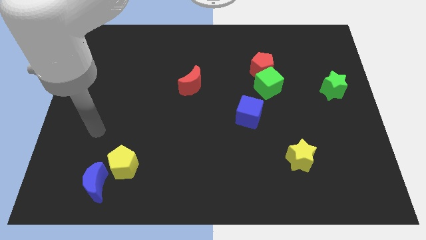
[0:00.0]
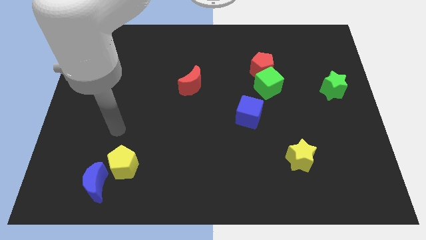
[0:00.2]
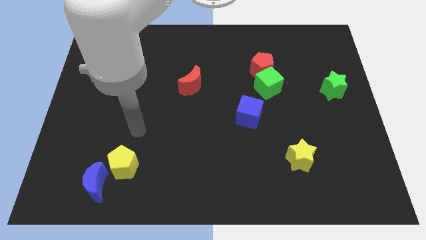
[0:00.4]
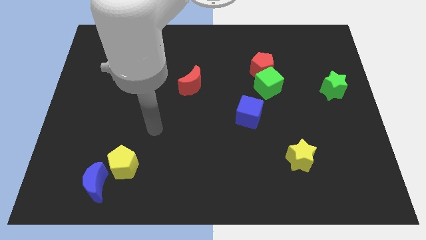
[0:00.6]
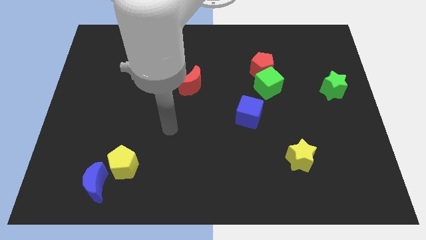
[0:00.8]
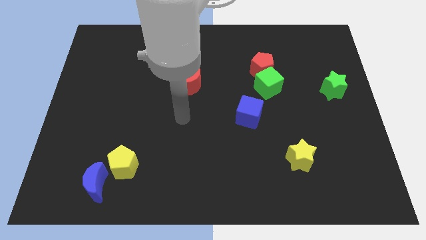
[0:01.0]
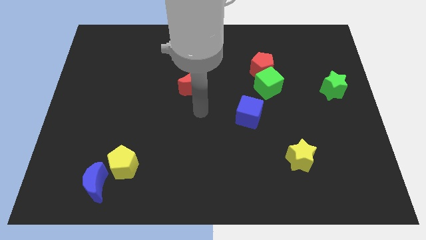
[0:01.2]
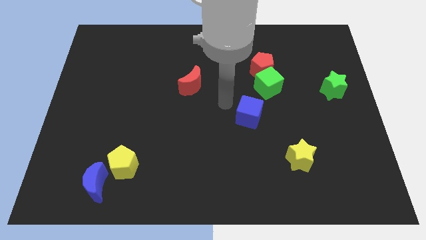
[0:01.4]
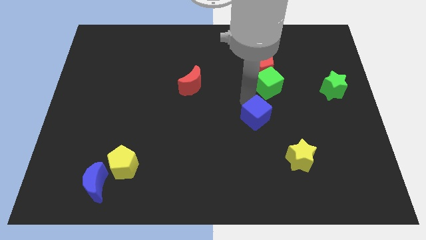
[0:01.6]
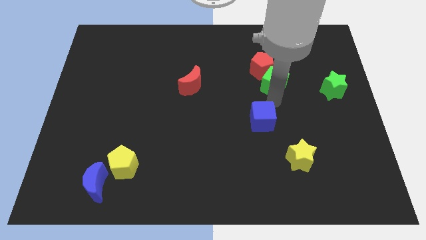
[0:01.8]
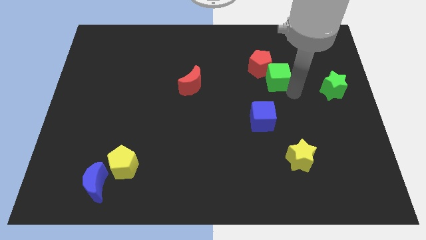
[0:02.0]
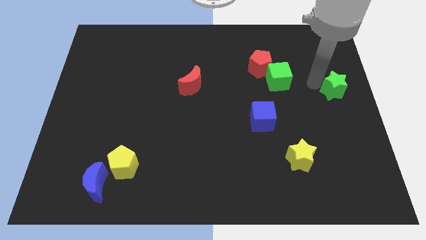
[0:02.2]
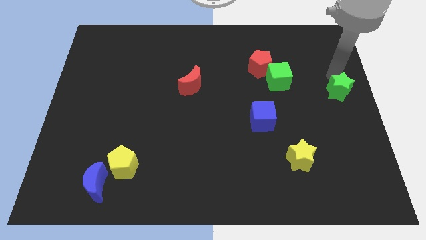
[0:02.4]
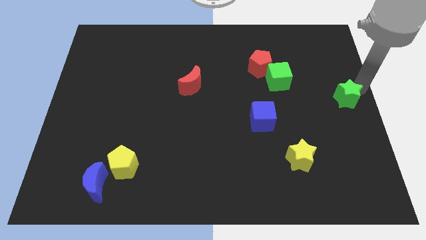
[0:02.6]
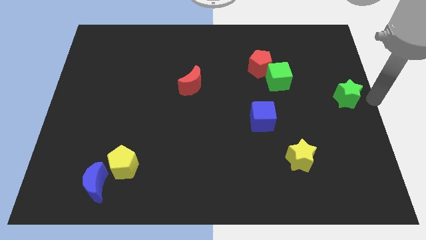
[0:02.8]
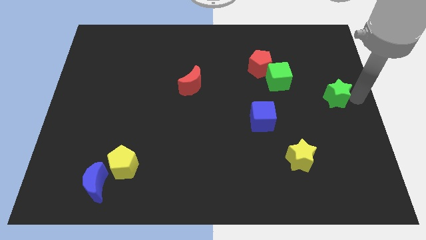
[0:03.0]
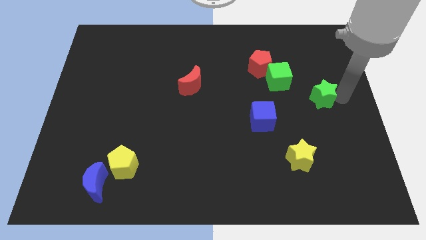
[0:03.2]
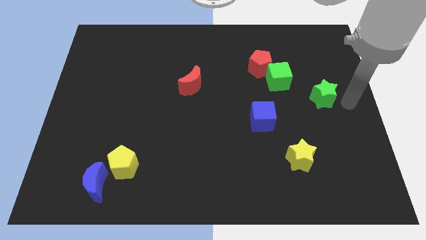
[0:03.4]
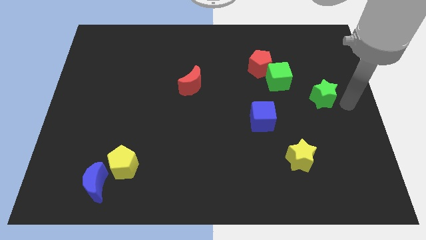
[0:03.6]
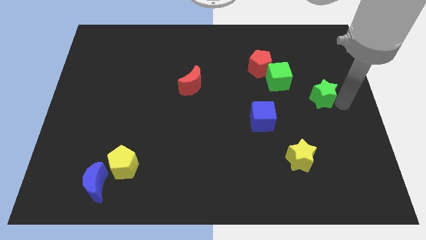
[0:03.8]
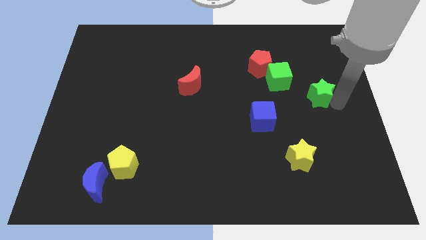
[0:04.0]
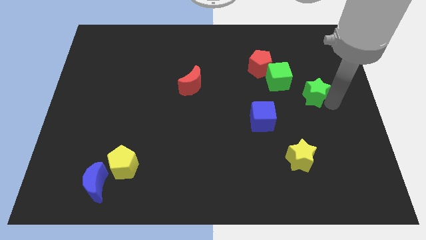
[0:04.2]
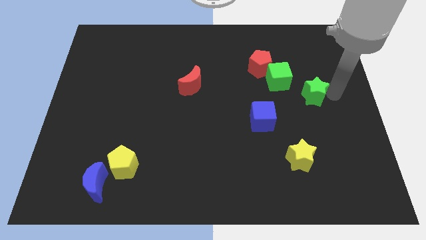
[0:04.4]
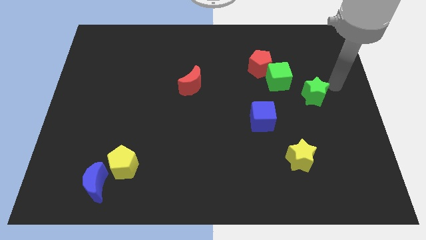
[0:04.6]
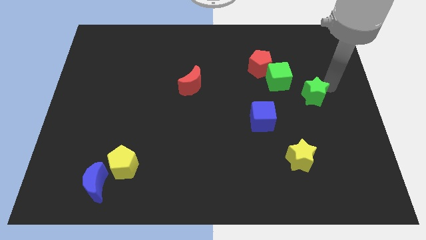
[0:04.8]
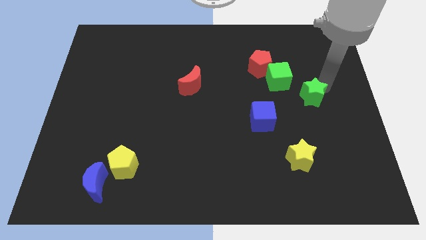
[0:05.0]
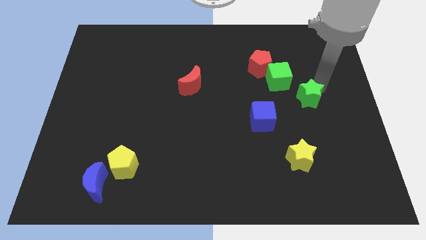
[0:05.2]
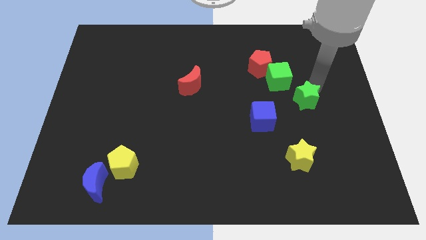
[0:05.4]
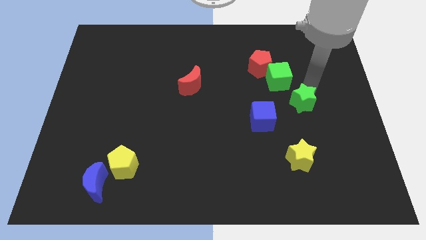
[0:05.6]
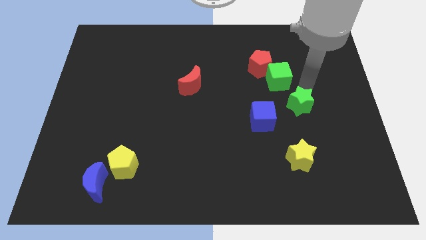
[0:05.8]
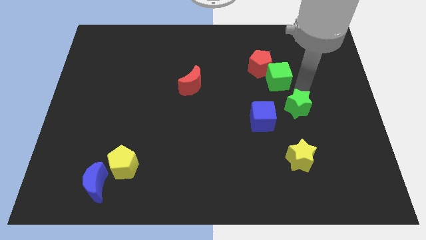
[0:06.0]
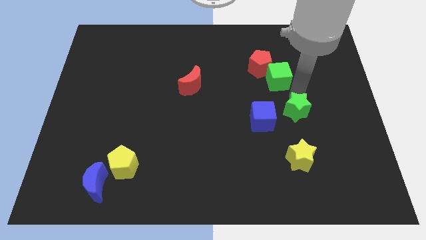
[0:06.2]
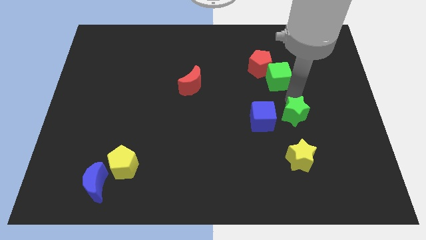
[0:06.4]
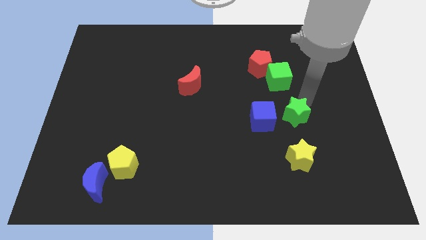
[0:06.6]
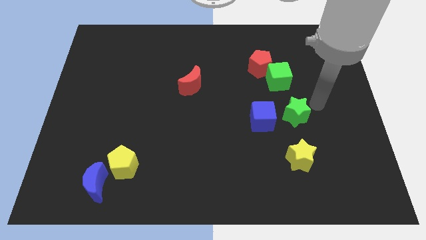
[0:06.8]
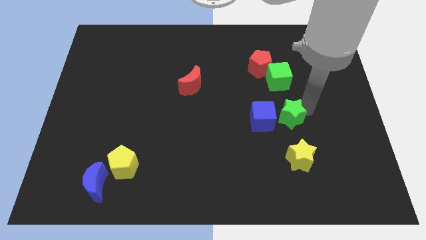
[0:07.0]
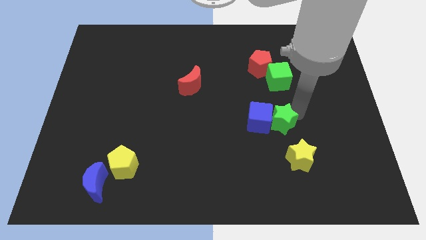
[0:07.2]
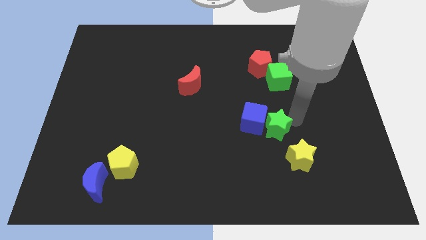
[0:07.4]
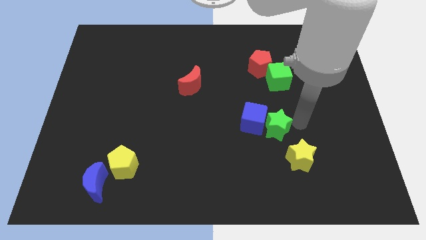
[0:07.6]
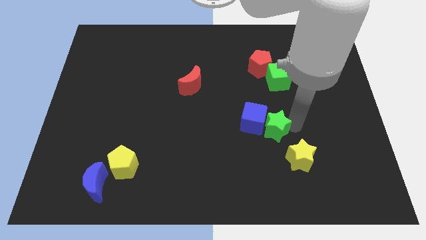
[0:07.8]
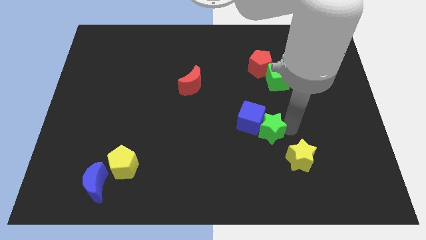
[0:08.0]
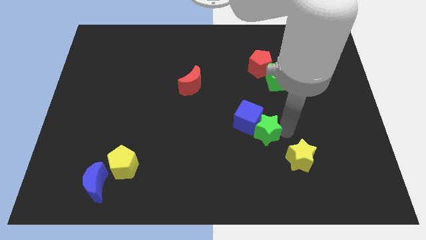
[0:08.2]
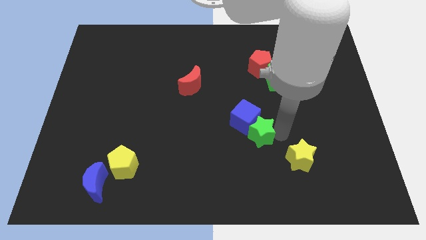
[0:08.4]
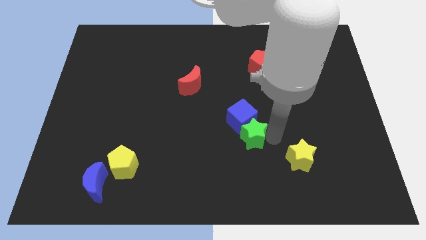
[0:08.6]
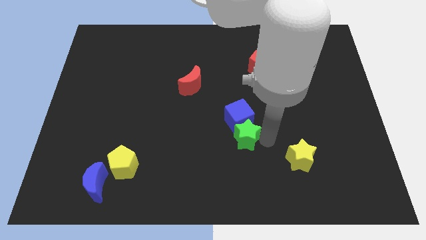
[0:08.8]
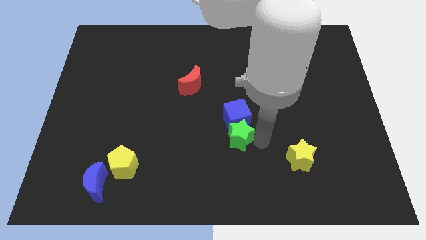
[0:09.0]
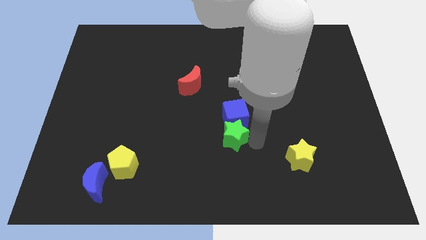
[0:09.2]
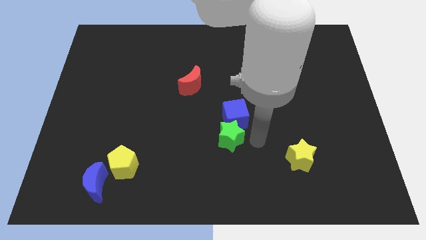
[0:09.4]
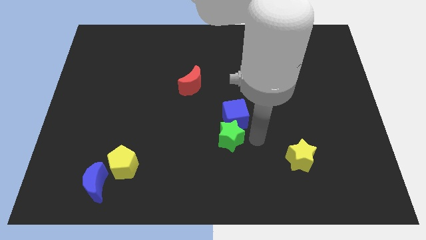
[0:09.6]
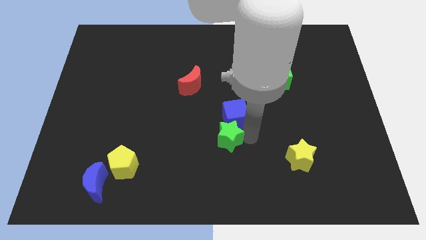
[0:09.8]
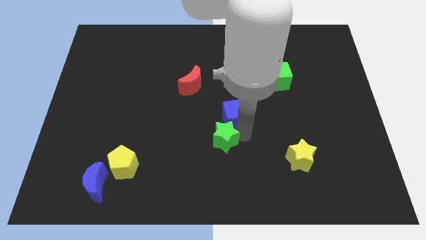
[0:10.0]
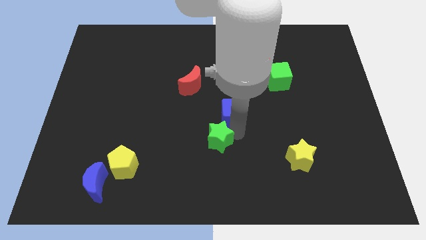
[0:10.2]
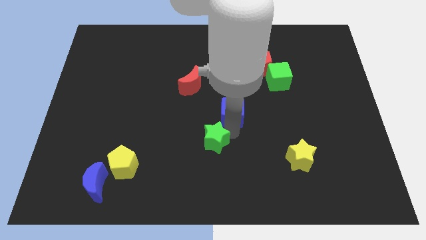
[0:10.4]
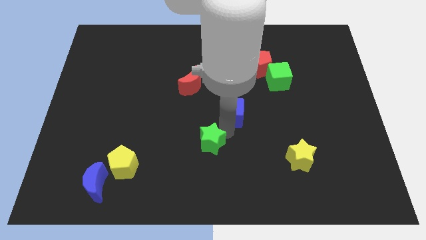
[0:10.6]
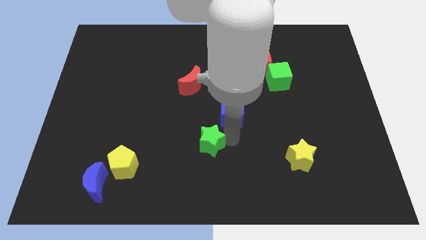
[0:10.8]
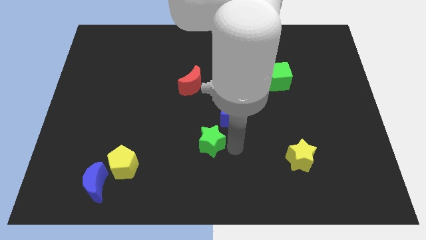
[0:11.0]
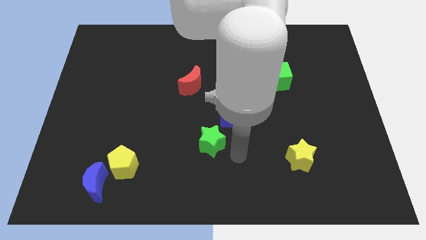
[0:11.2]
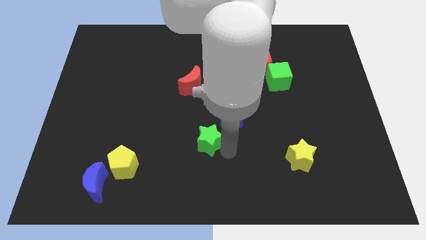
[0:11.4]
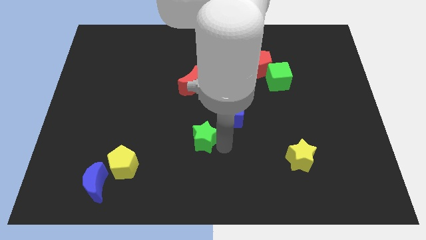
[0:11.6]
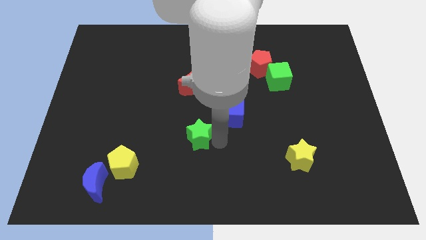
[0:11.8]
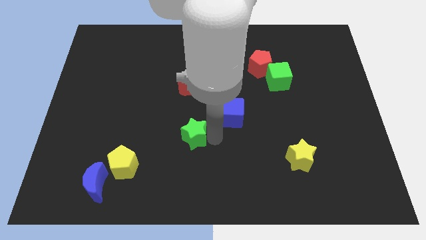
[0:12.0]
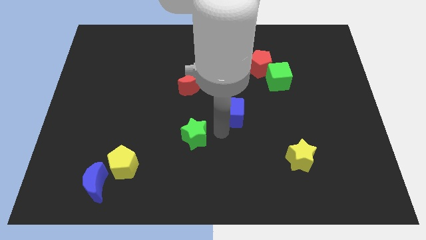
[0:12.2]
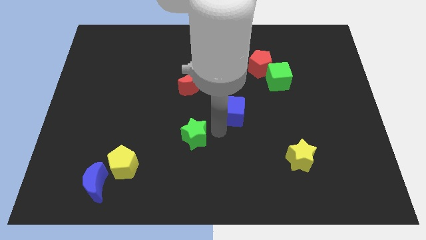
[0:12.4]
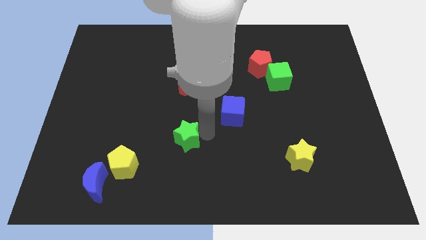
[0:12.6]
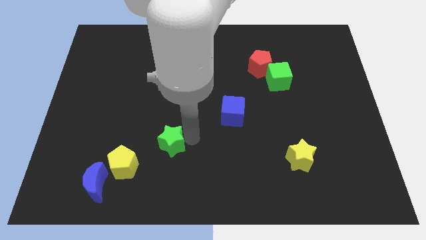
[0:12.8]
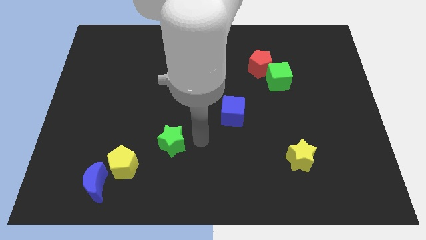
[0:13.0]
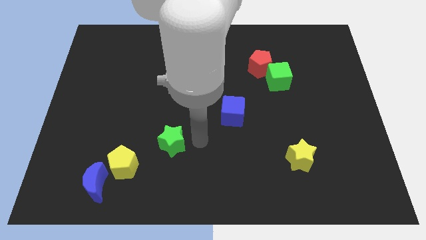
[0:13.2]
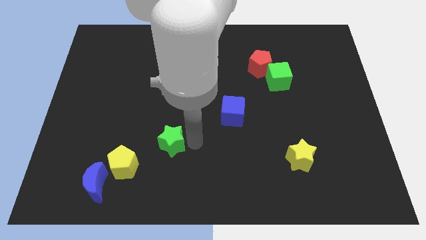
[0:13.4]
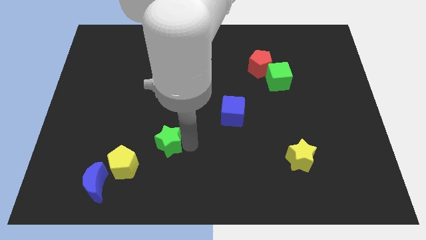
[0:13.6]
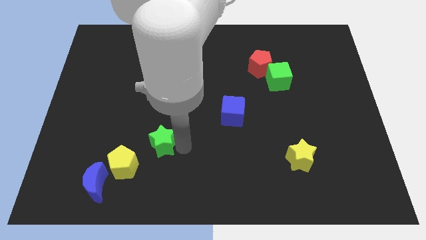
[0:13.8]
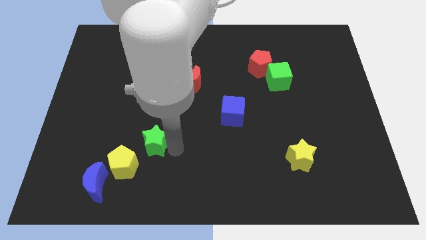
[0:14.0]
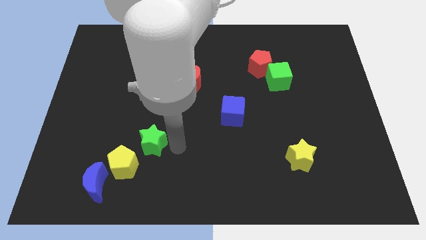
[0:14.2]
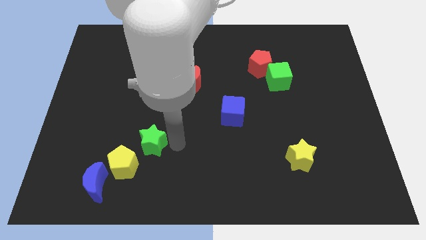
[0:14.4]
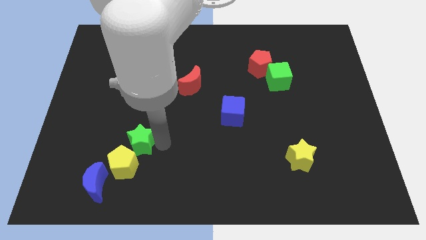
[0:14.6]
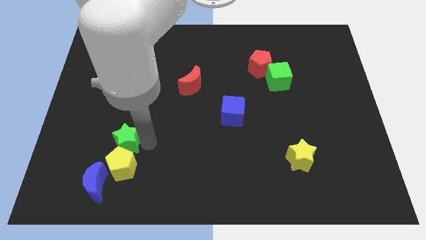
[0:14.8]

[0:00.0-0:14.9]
put the green star to the top of the blue moon
